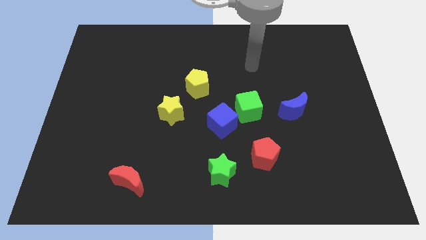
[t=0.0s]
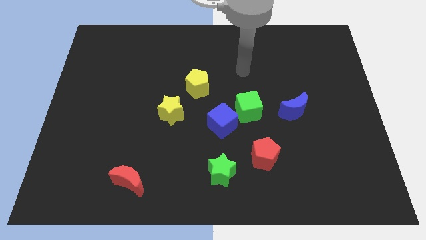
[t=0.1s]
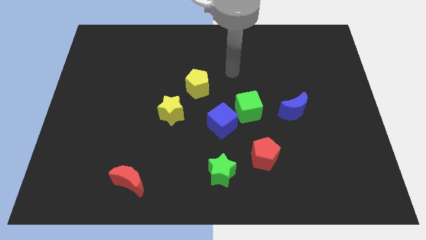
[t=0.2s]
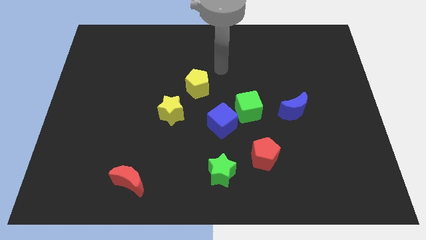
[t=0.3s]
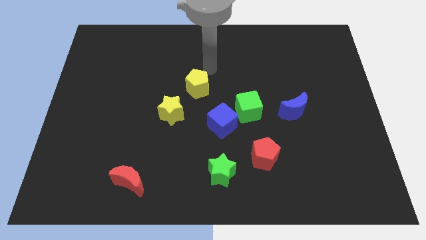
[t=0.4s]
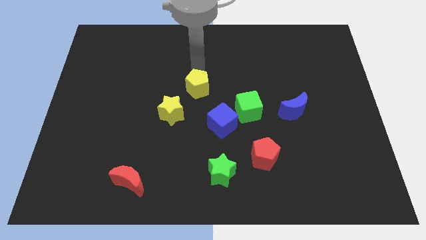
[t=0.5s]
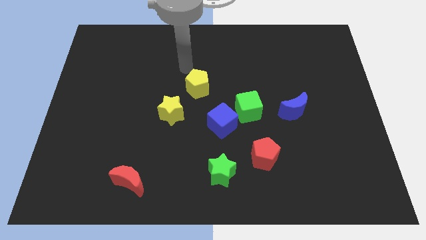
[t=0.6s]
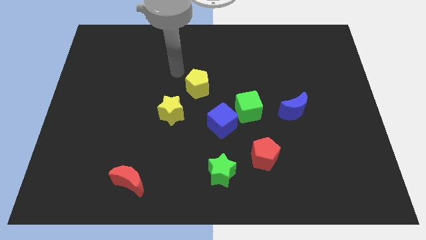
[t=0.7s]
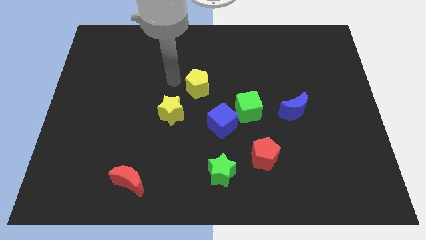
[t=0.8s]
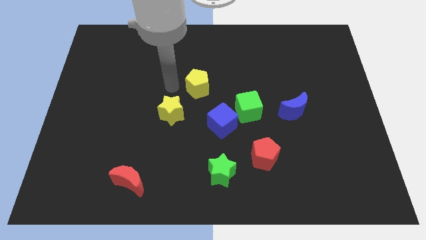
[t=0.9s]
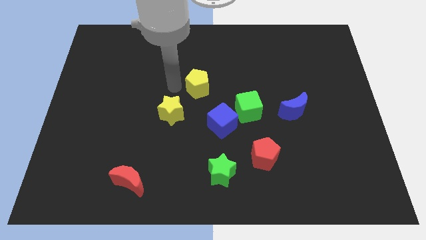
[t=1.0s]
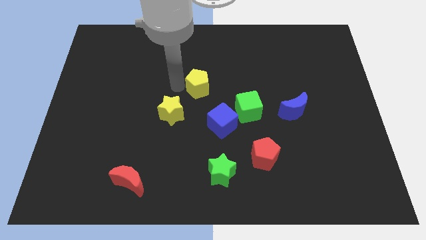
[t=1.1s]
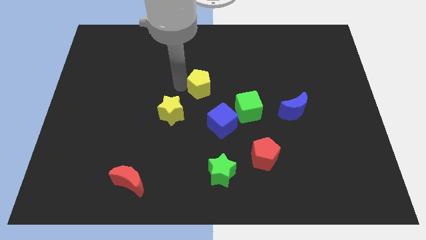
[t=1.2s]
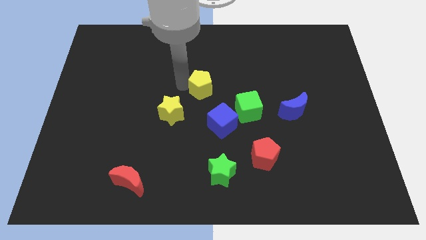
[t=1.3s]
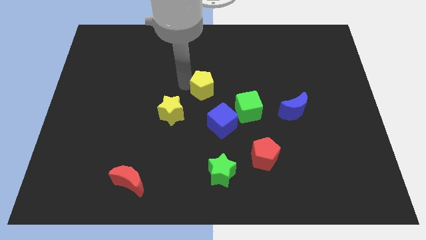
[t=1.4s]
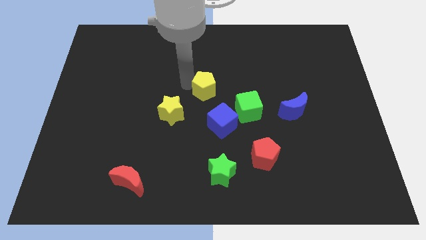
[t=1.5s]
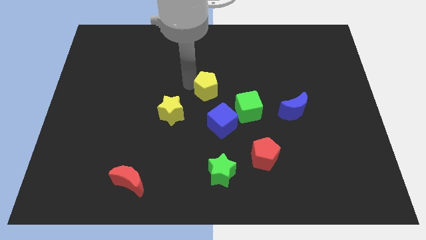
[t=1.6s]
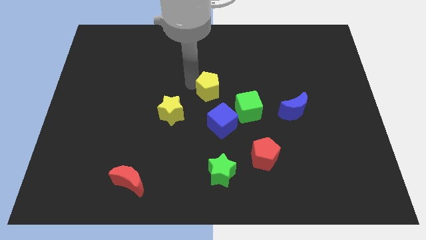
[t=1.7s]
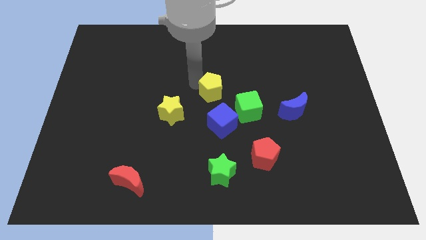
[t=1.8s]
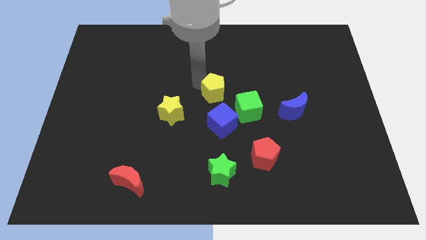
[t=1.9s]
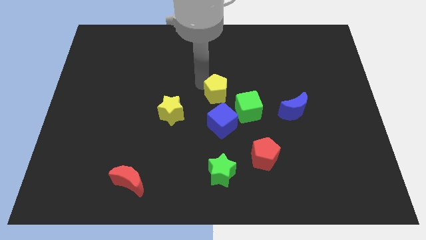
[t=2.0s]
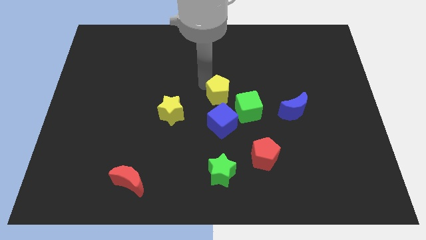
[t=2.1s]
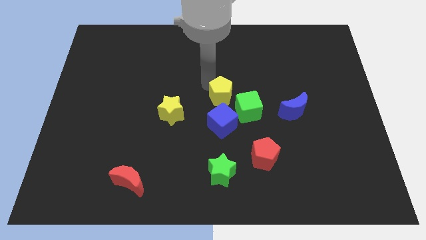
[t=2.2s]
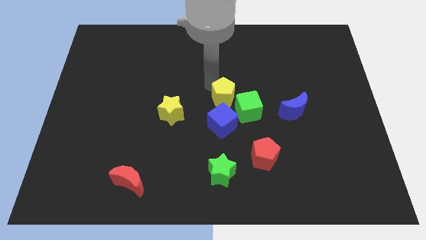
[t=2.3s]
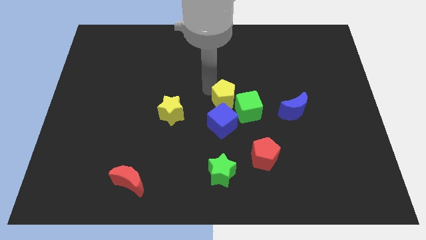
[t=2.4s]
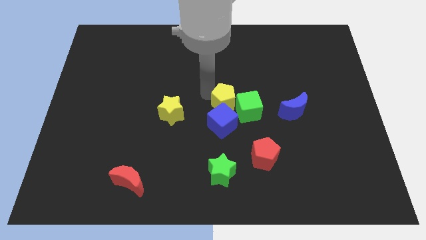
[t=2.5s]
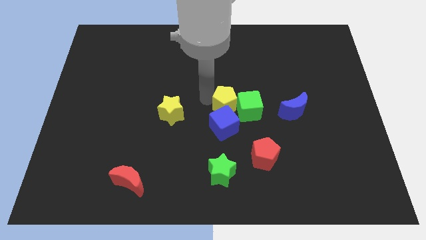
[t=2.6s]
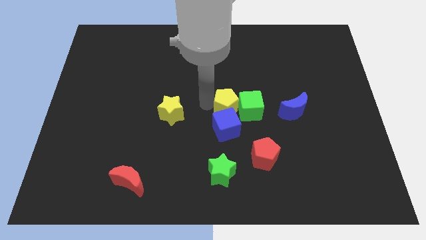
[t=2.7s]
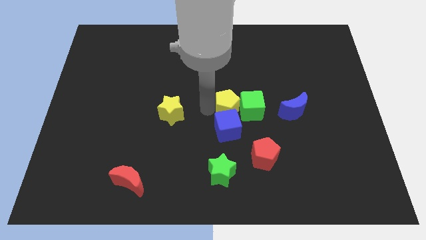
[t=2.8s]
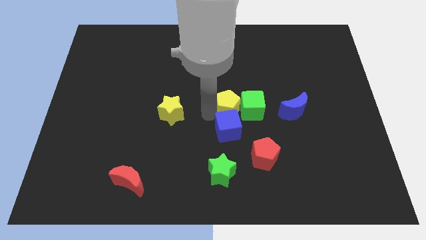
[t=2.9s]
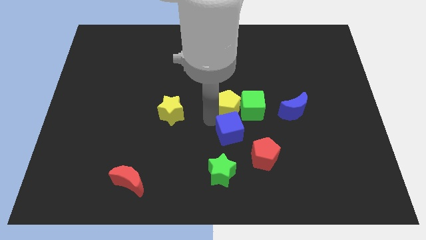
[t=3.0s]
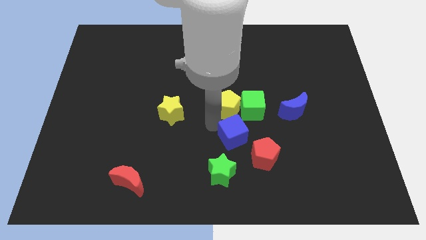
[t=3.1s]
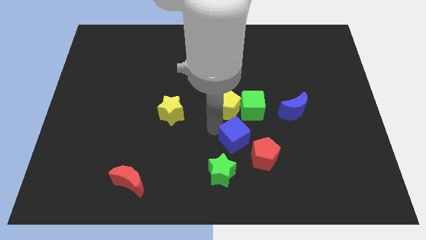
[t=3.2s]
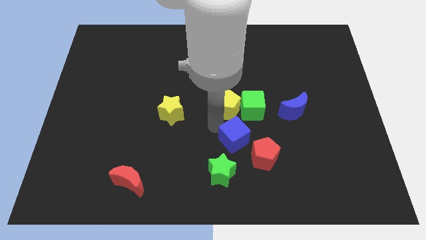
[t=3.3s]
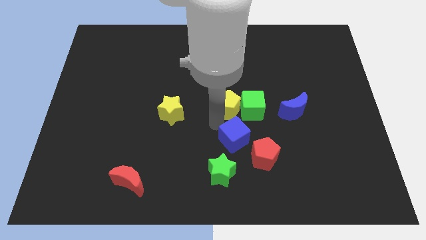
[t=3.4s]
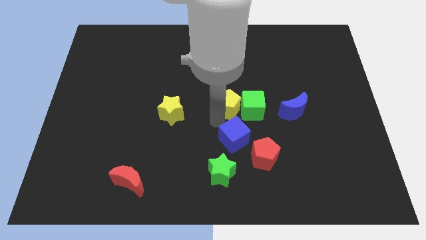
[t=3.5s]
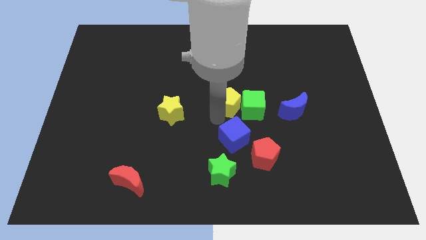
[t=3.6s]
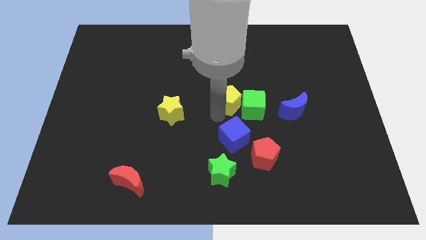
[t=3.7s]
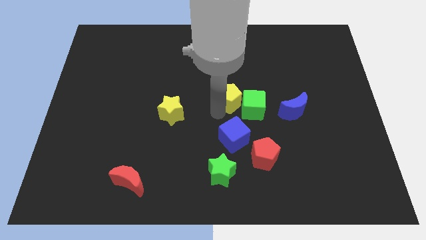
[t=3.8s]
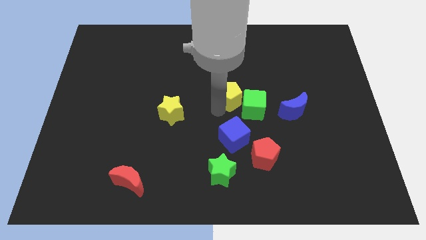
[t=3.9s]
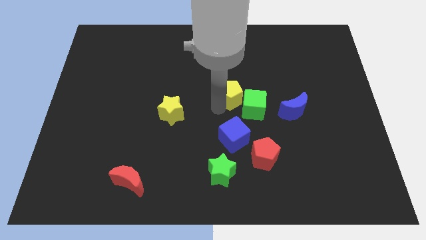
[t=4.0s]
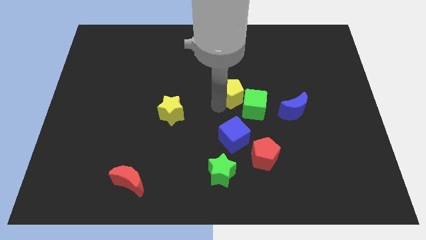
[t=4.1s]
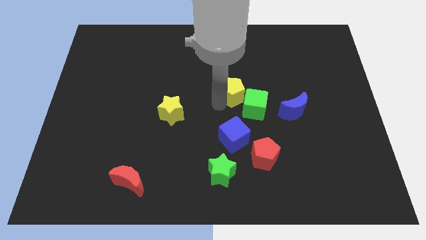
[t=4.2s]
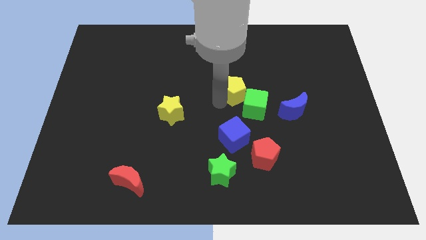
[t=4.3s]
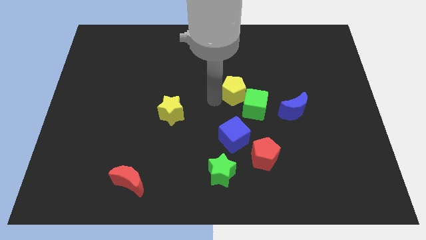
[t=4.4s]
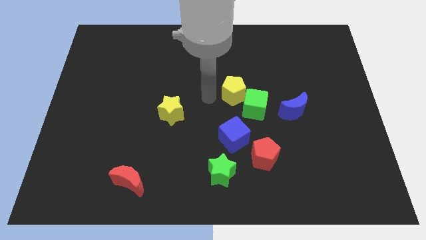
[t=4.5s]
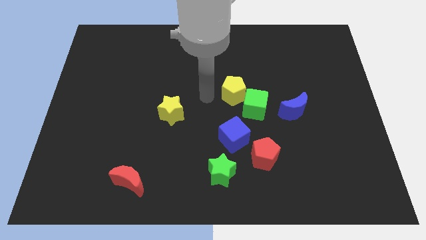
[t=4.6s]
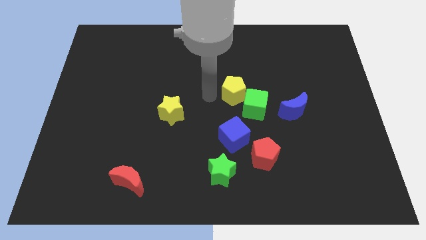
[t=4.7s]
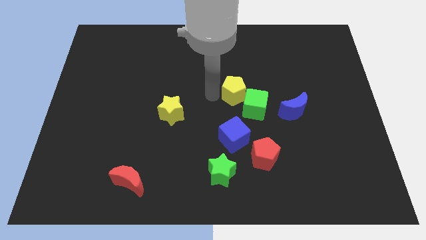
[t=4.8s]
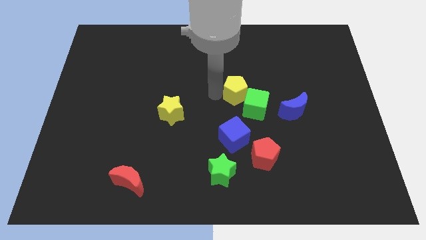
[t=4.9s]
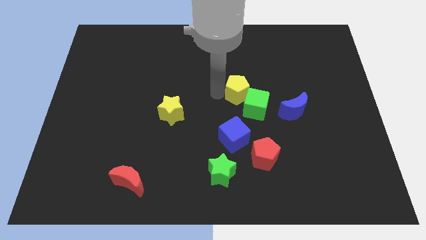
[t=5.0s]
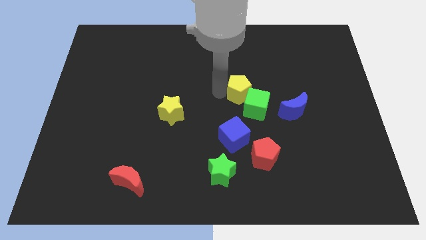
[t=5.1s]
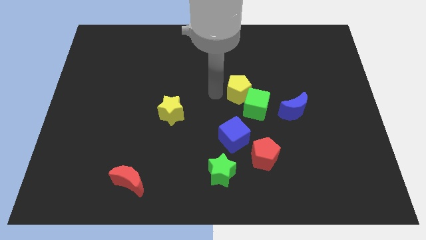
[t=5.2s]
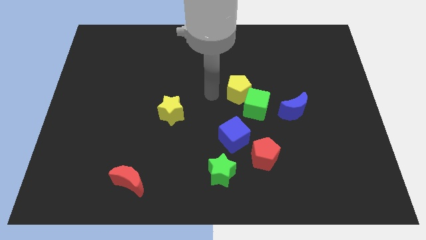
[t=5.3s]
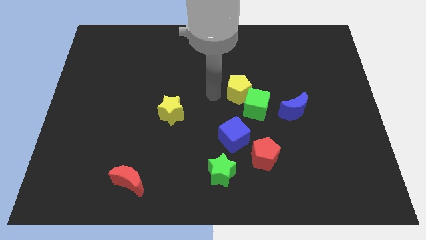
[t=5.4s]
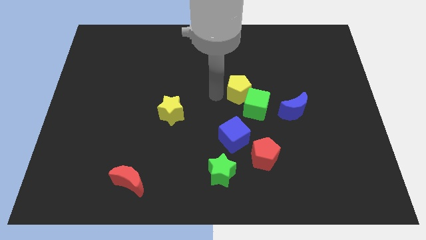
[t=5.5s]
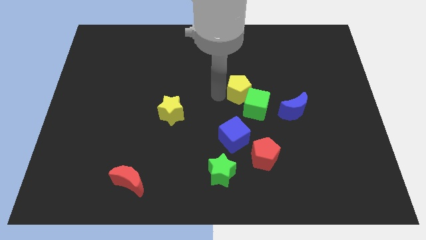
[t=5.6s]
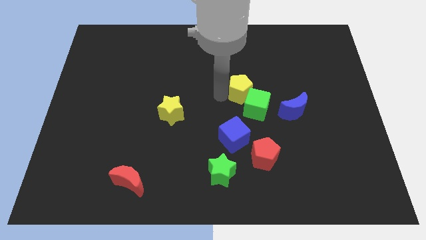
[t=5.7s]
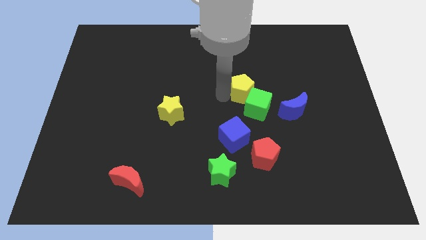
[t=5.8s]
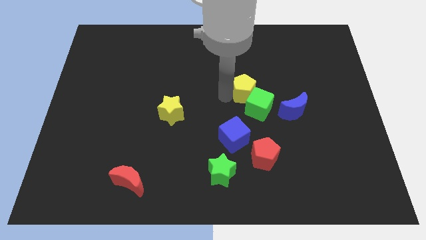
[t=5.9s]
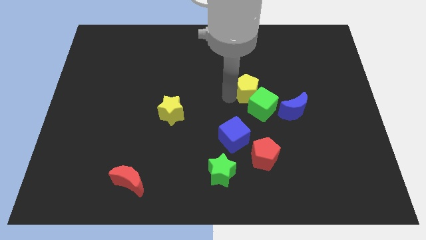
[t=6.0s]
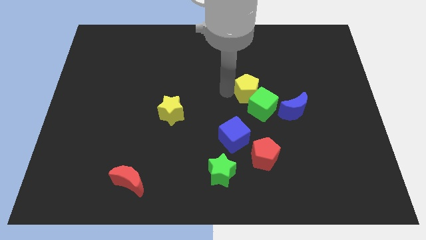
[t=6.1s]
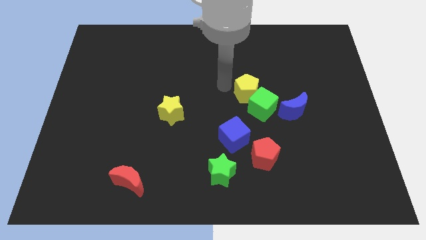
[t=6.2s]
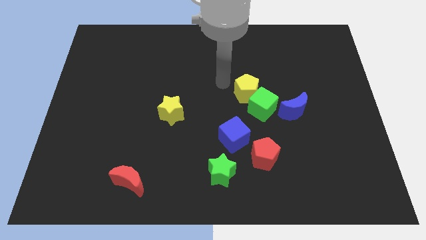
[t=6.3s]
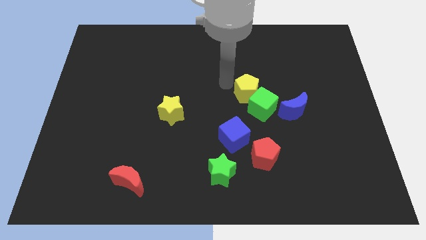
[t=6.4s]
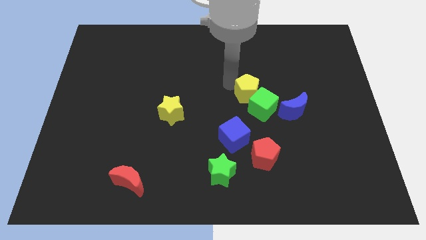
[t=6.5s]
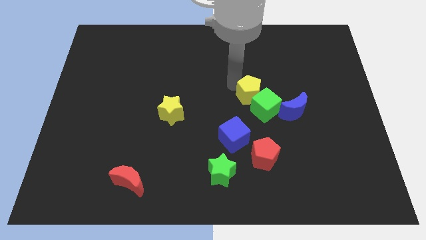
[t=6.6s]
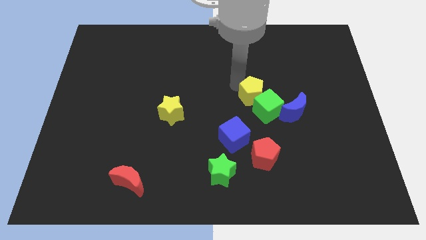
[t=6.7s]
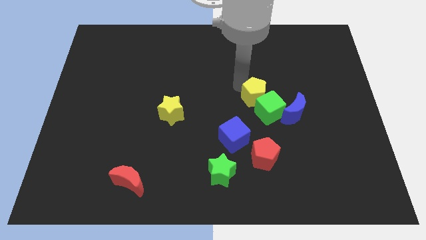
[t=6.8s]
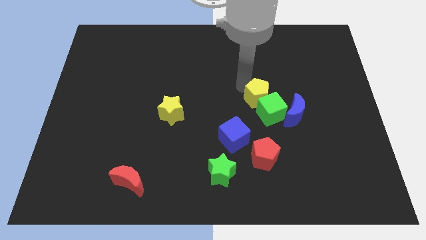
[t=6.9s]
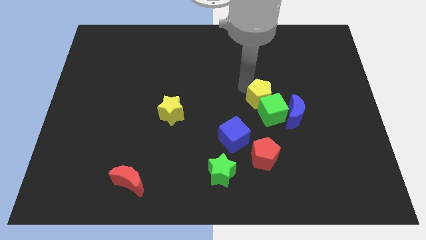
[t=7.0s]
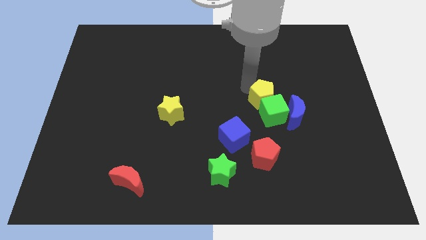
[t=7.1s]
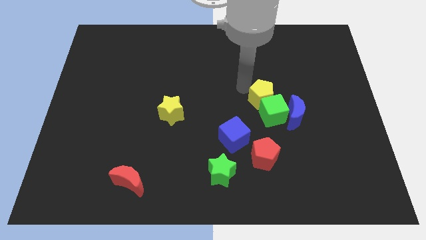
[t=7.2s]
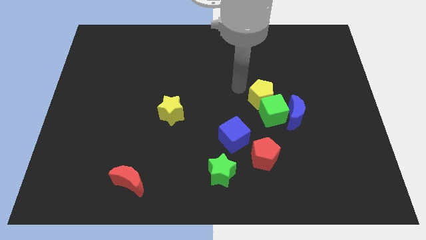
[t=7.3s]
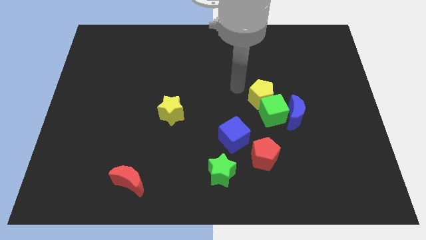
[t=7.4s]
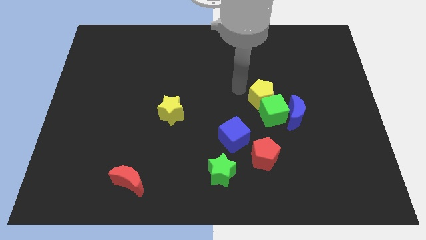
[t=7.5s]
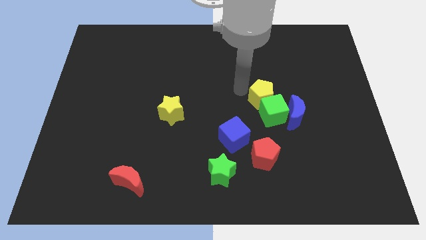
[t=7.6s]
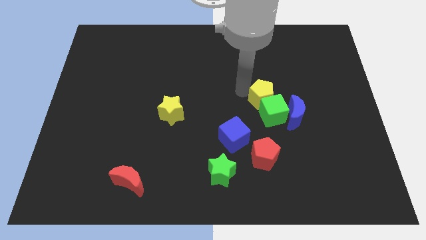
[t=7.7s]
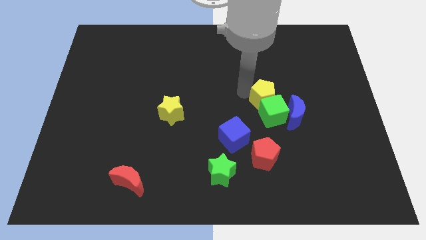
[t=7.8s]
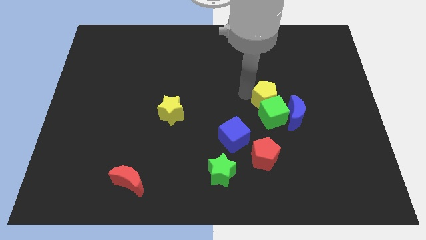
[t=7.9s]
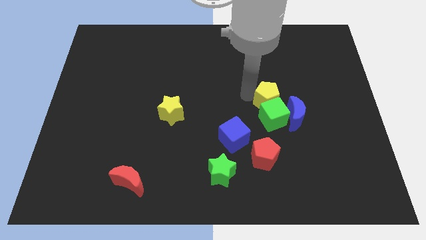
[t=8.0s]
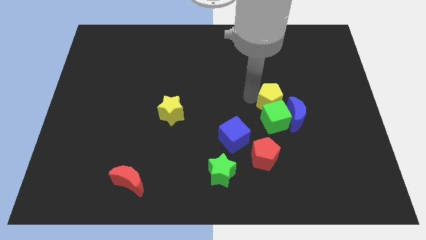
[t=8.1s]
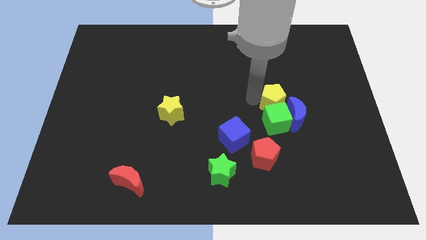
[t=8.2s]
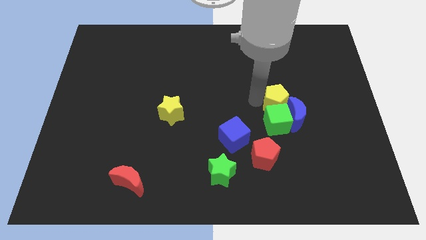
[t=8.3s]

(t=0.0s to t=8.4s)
move the yellow pentagon to the blue moon
